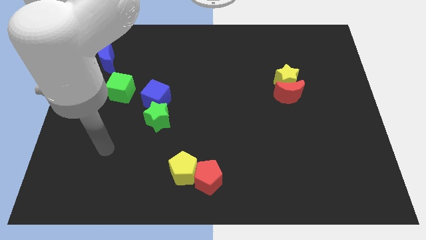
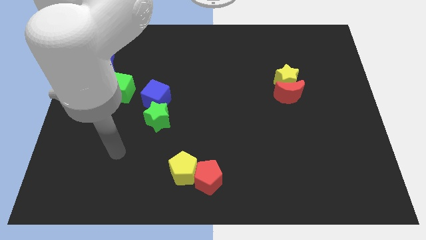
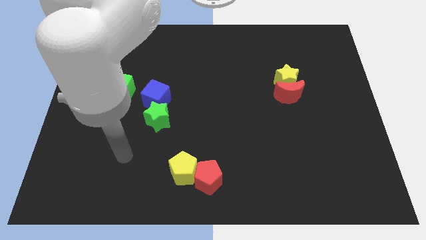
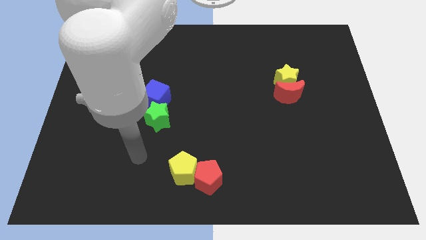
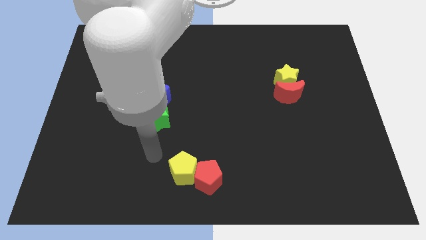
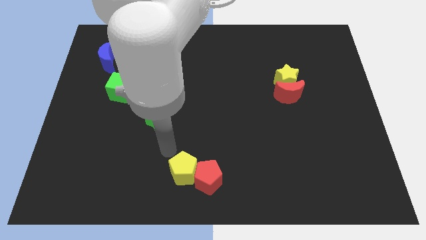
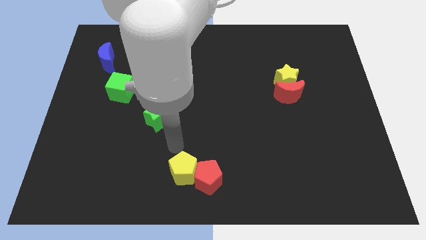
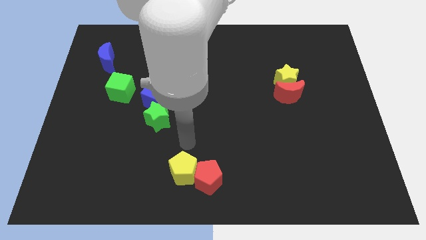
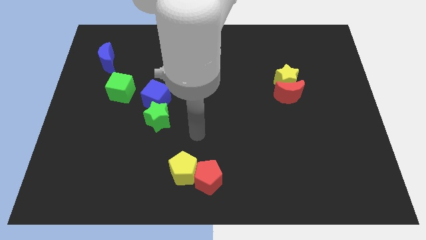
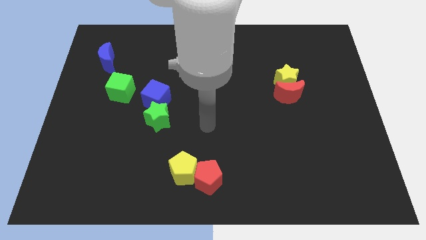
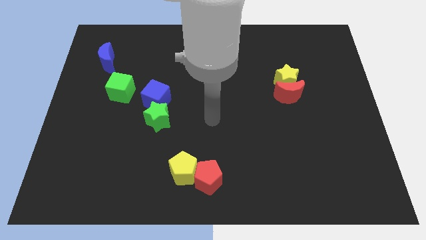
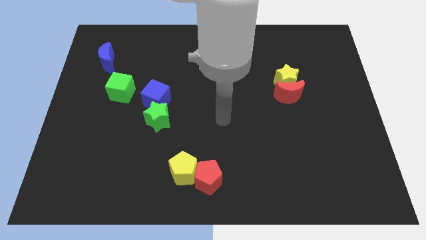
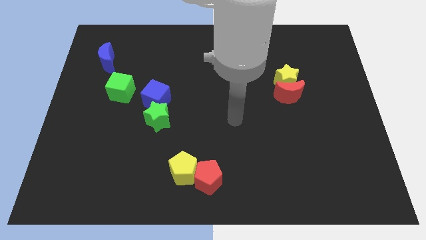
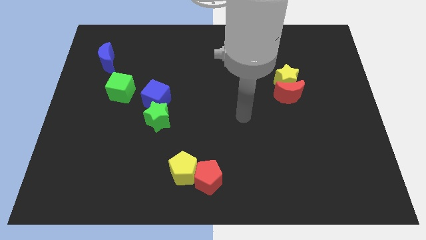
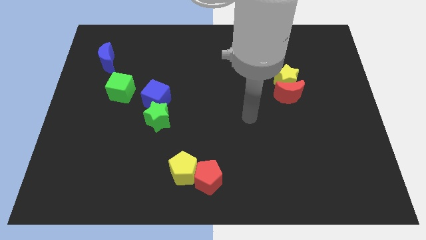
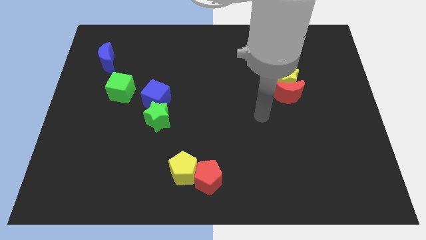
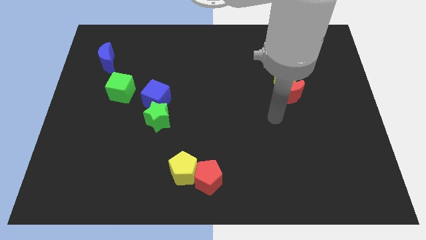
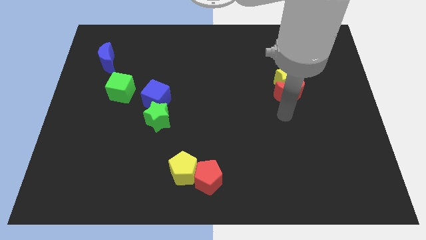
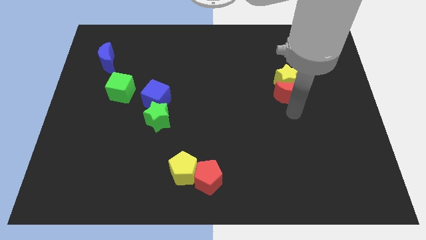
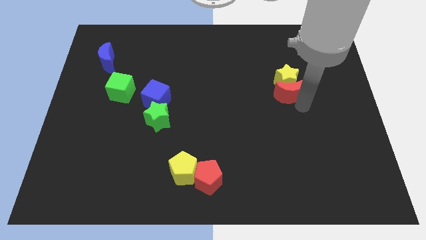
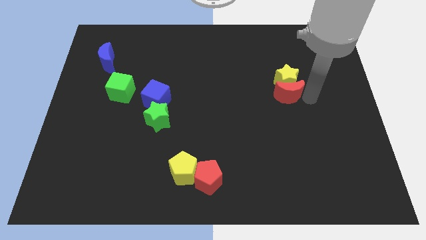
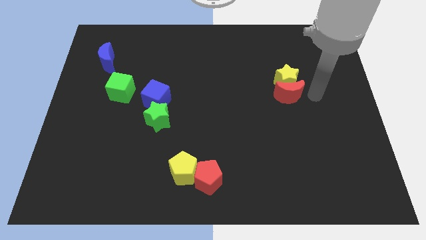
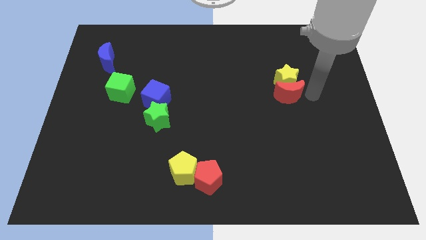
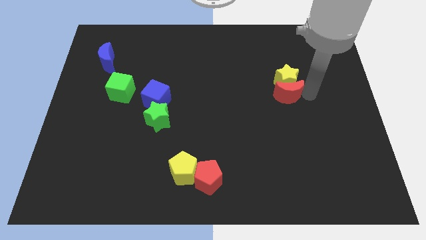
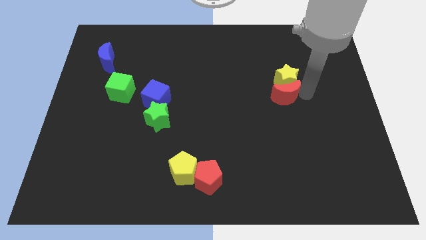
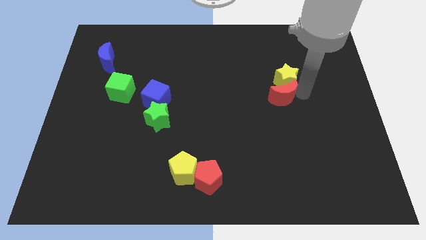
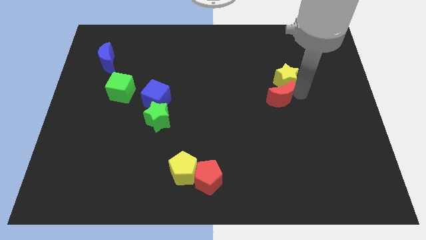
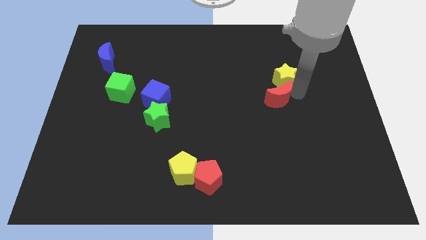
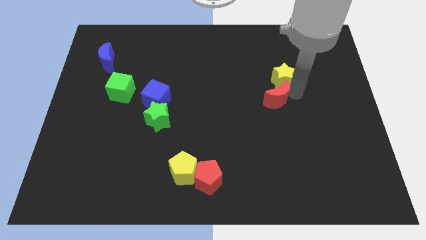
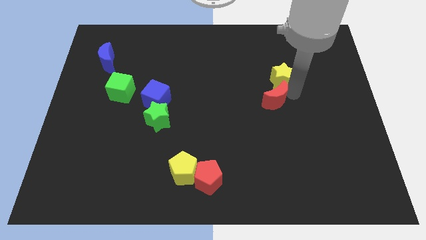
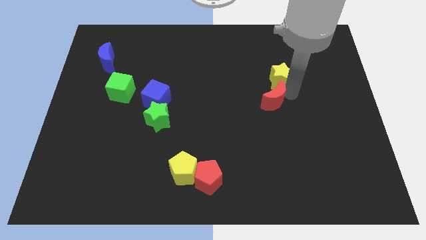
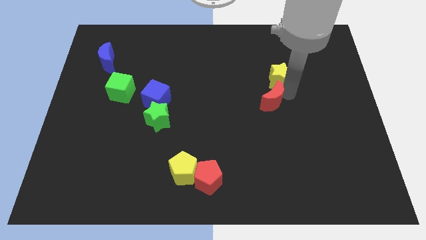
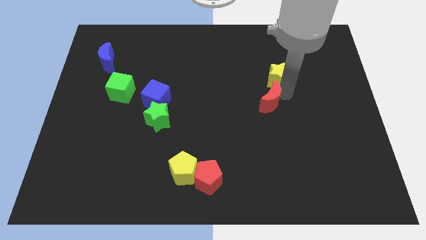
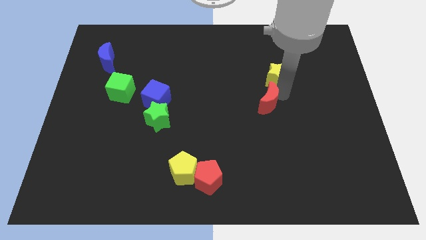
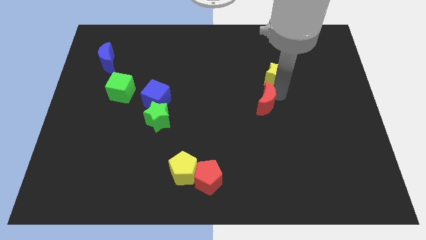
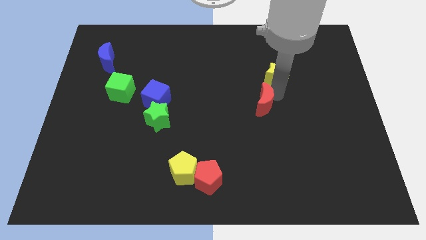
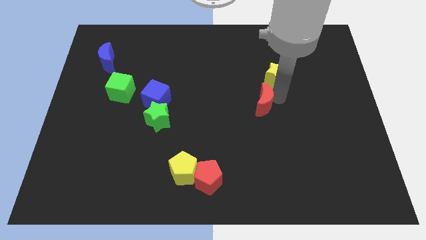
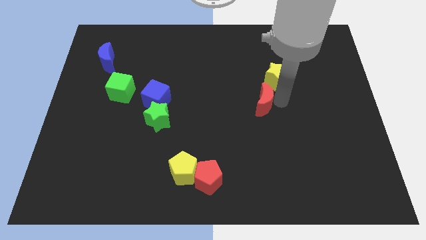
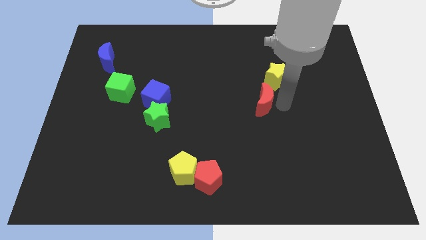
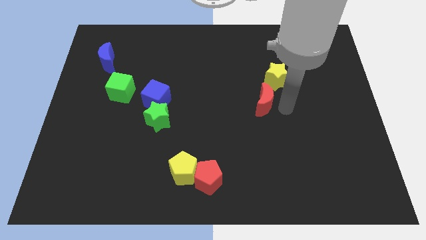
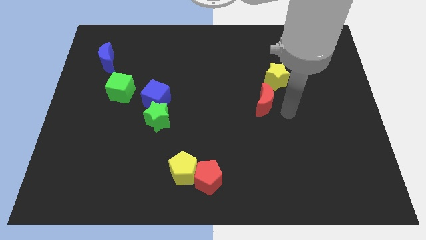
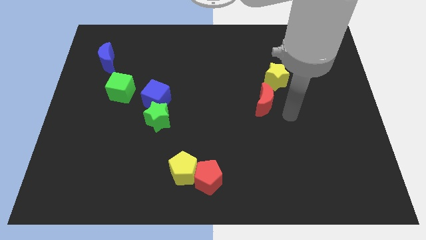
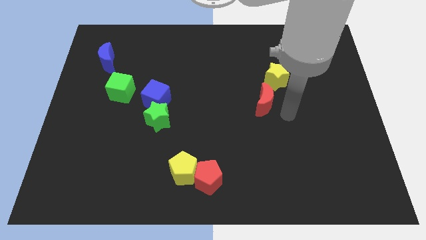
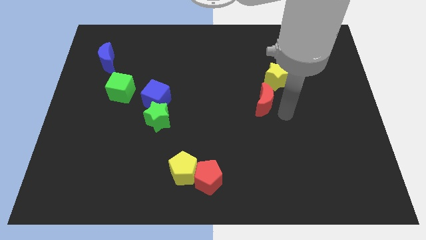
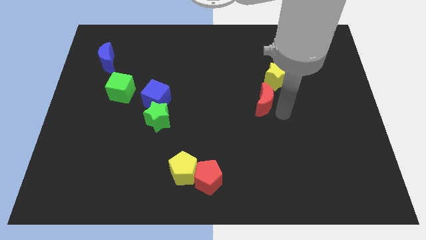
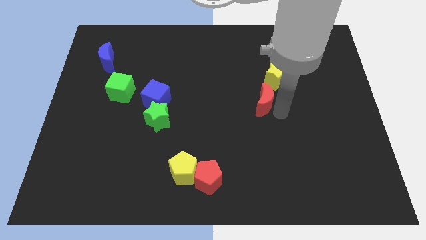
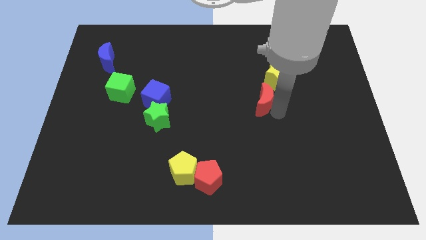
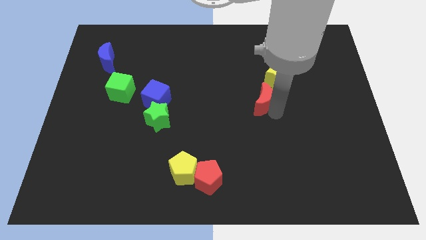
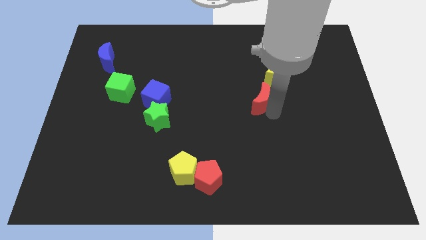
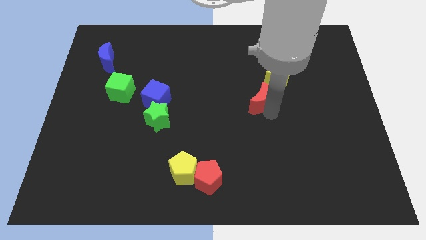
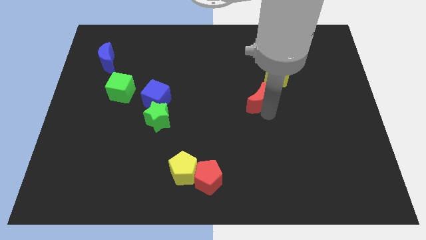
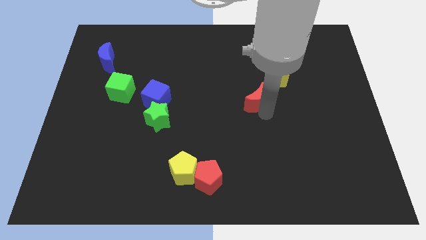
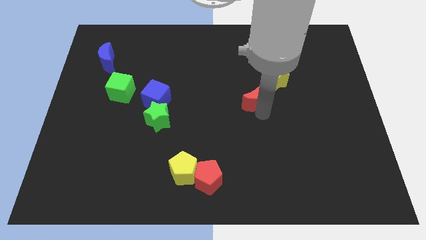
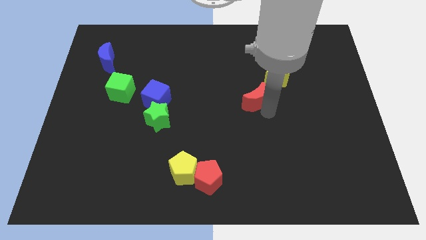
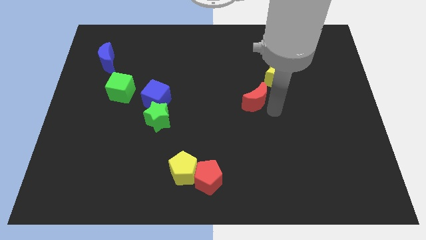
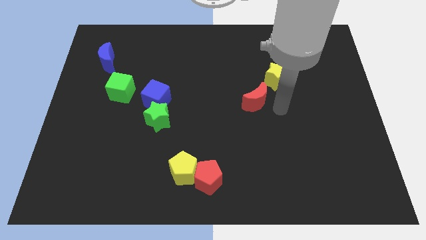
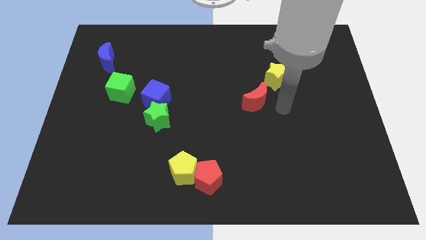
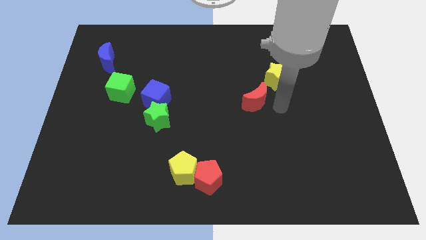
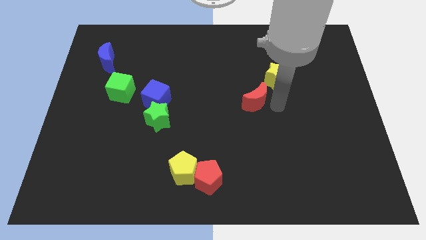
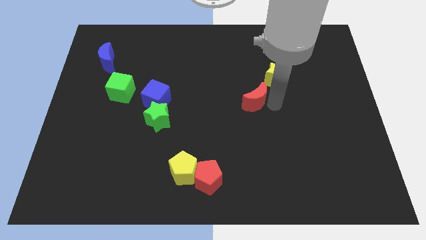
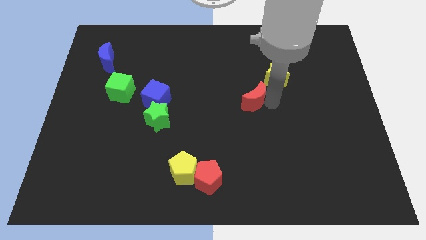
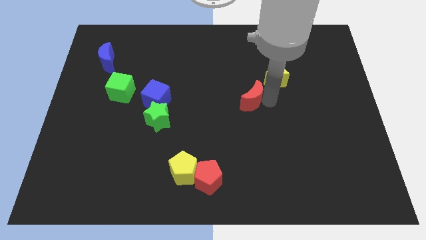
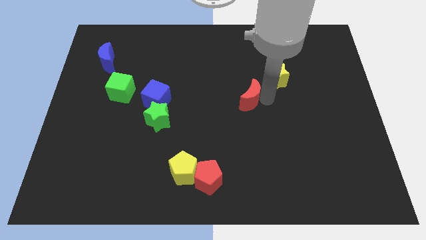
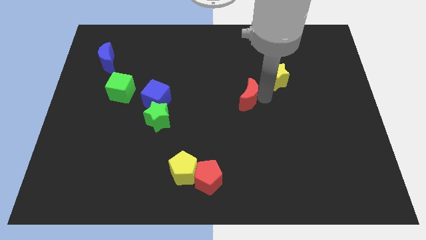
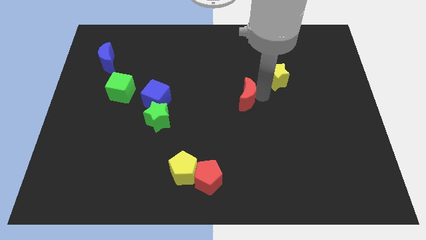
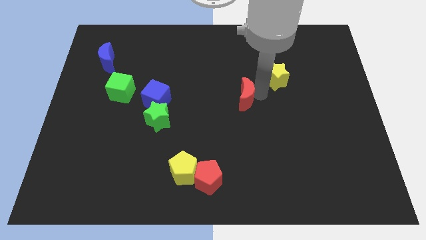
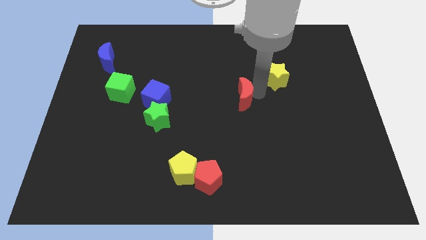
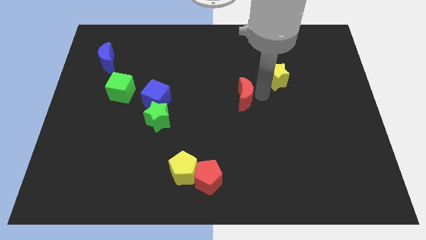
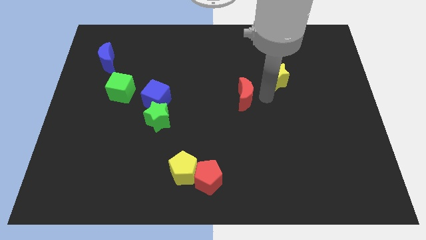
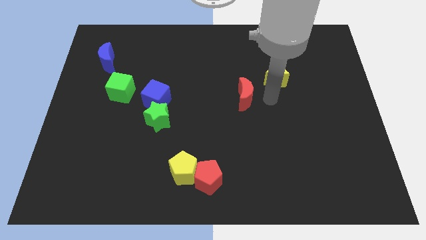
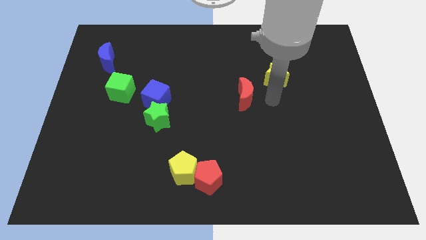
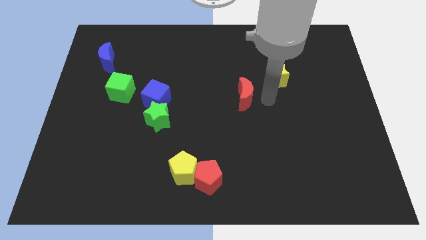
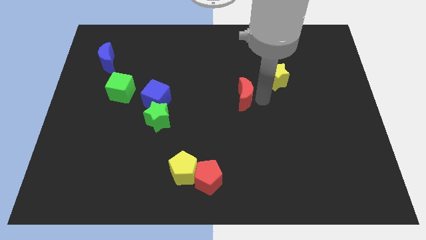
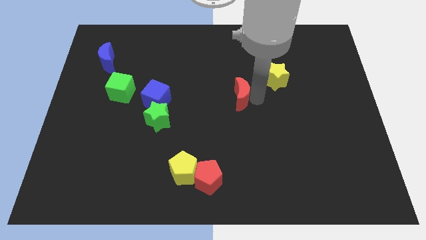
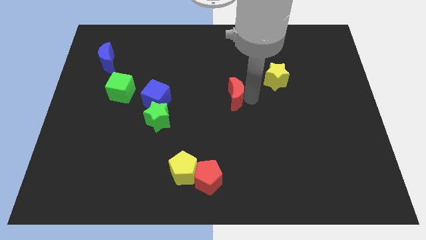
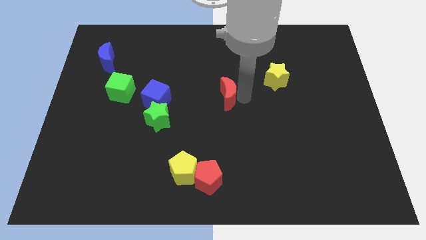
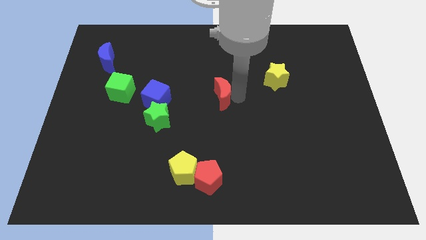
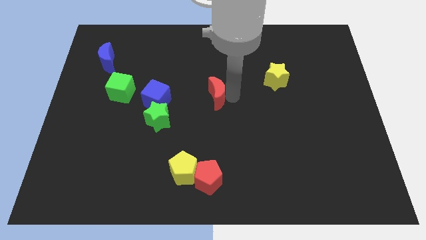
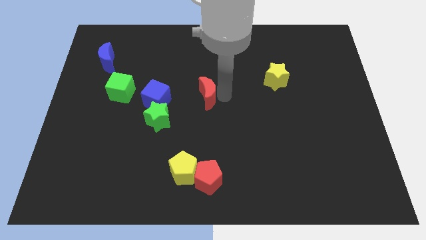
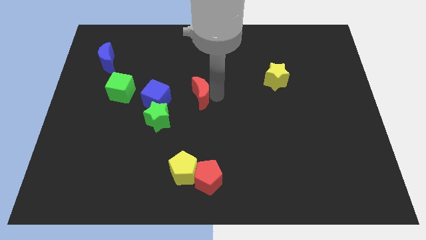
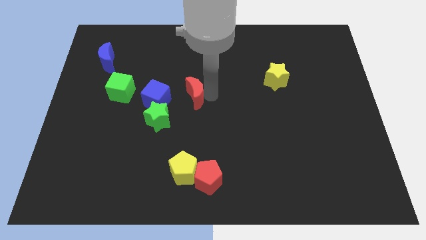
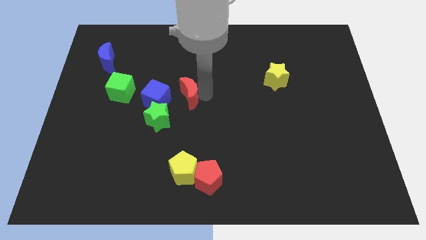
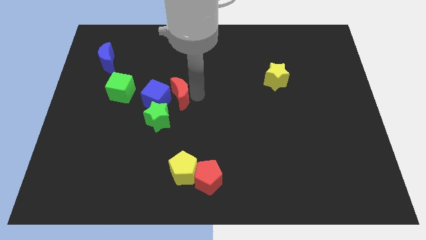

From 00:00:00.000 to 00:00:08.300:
slide the red moon close to the blue cube
